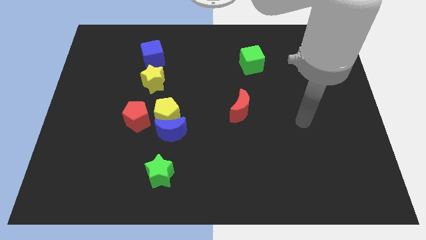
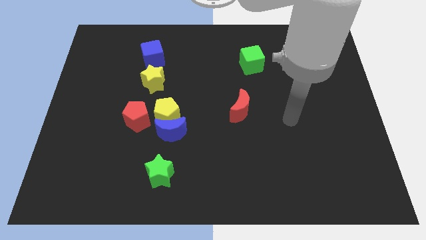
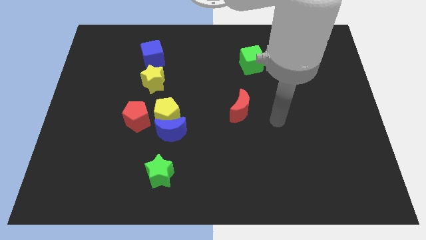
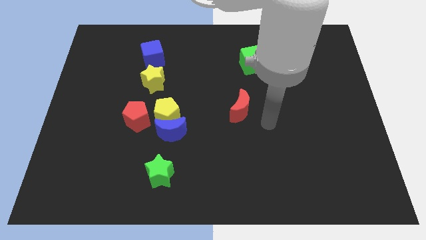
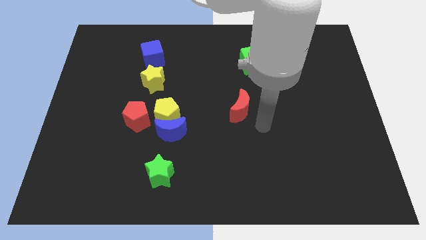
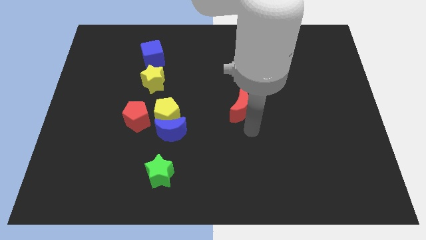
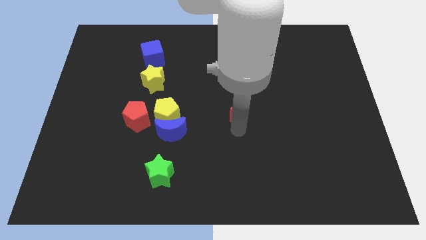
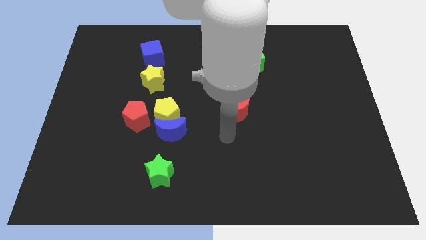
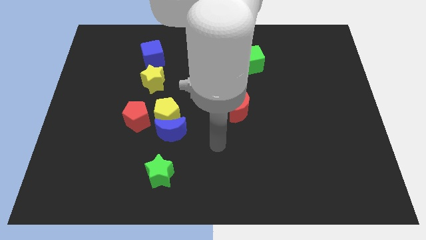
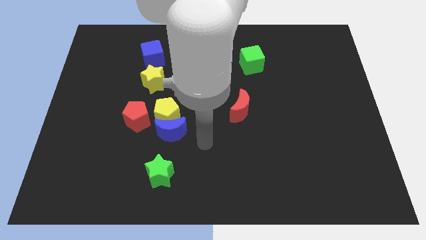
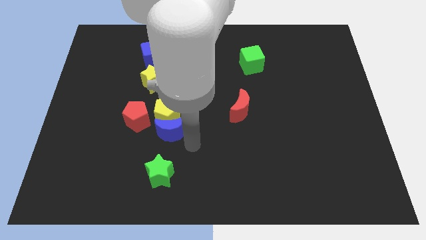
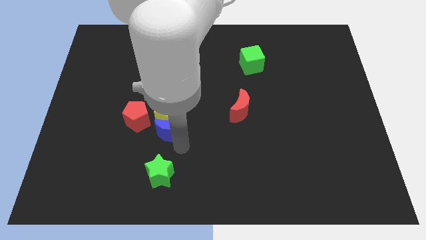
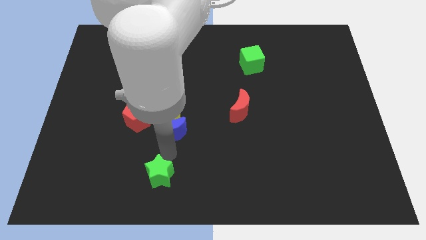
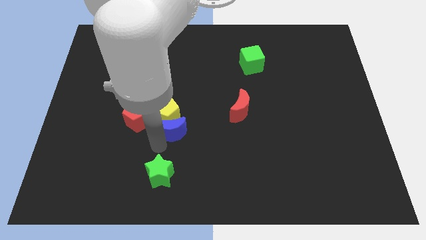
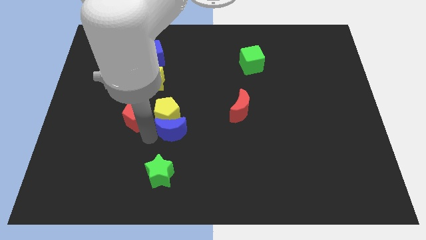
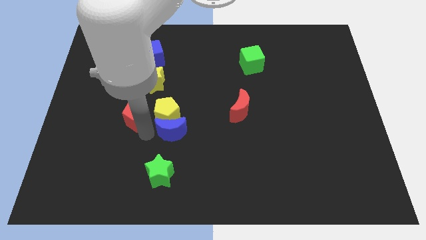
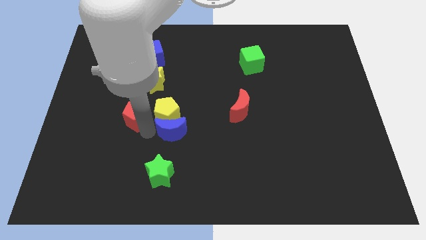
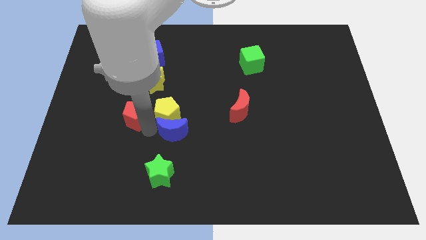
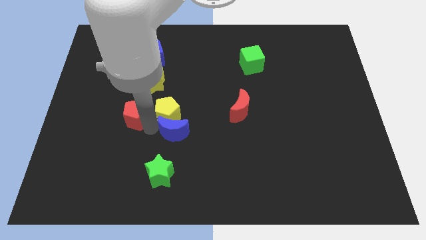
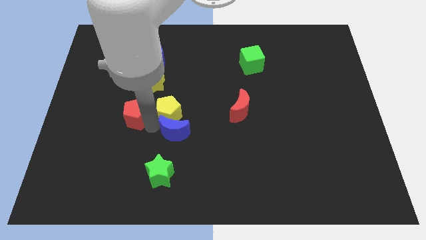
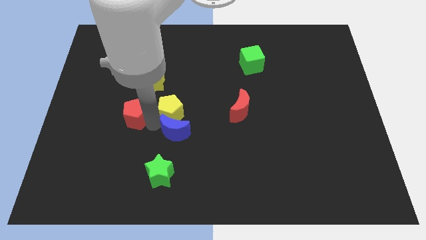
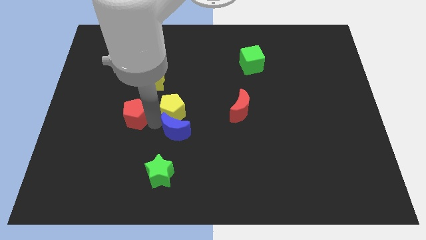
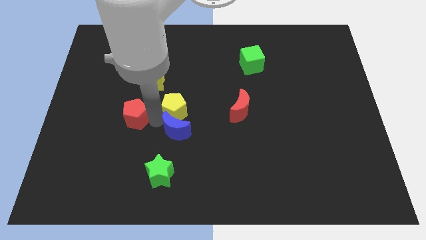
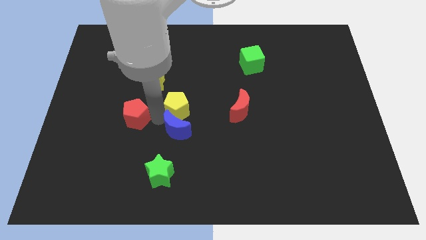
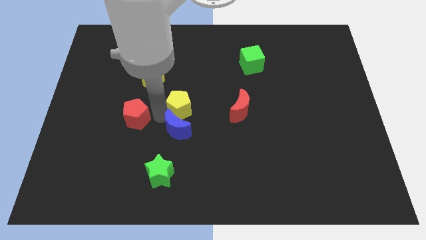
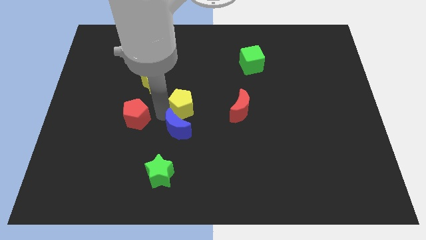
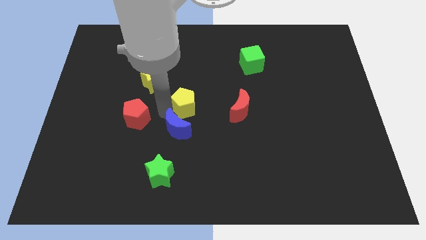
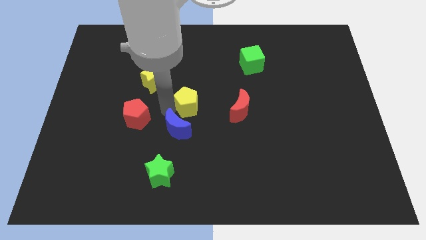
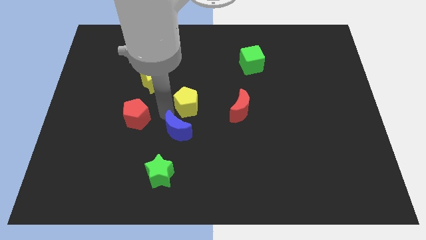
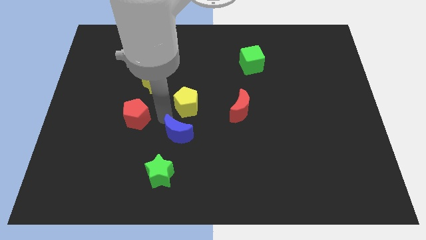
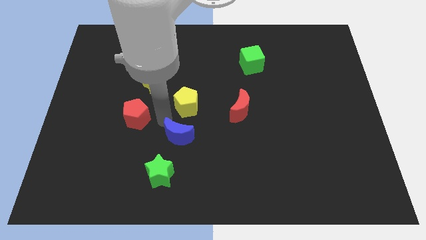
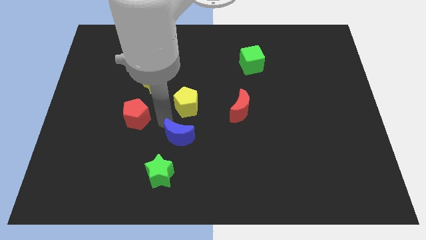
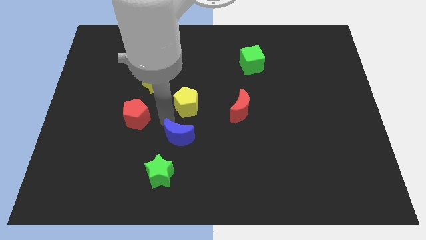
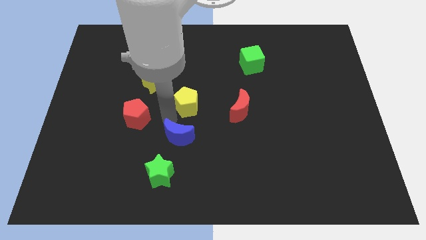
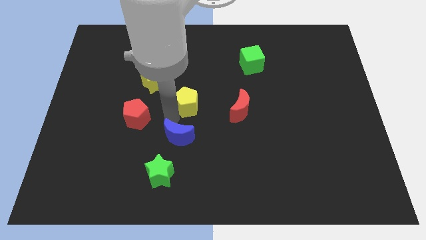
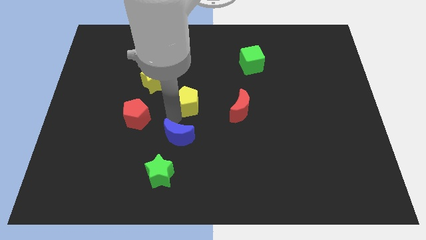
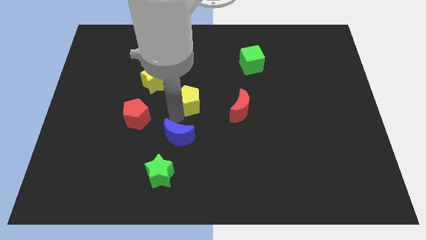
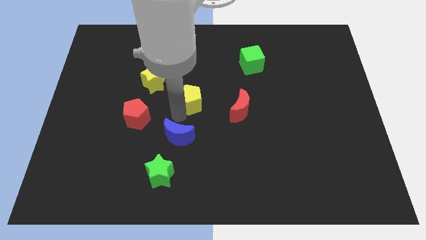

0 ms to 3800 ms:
separate the yellow pentagon from the blue moon and red pentagon

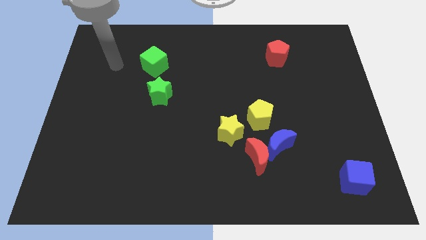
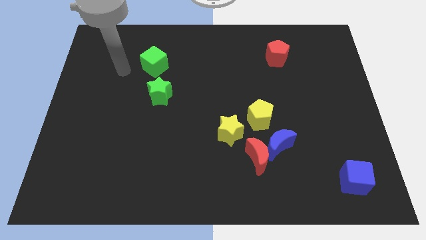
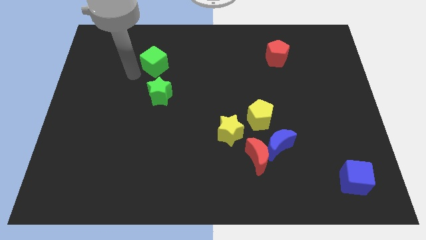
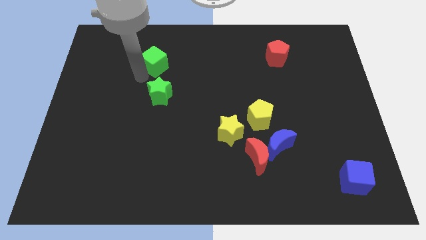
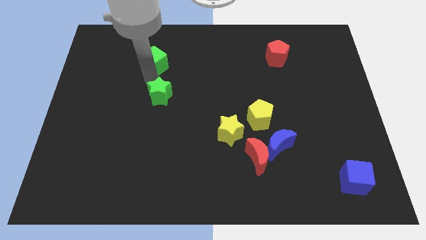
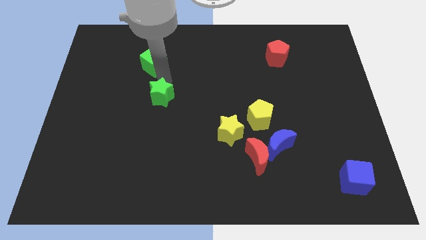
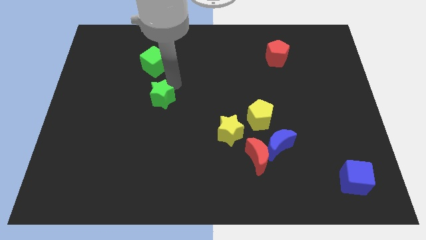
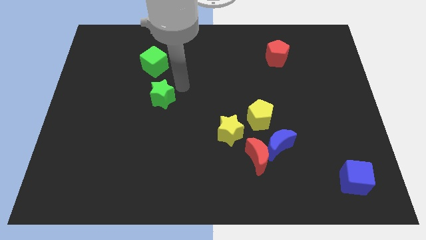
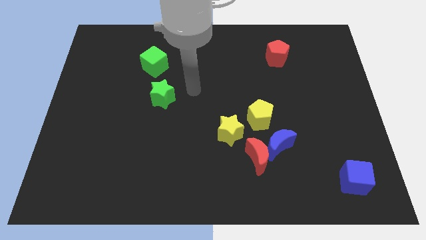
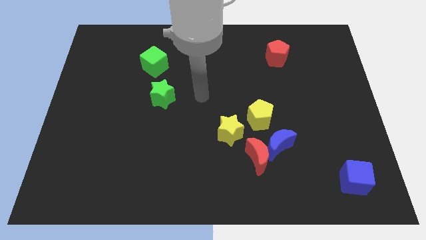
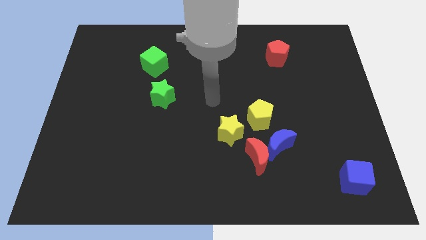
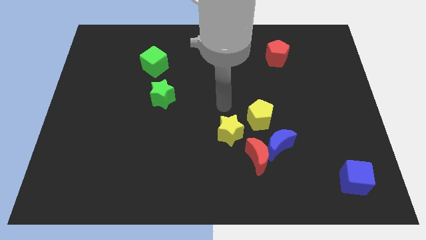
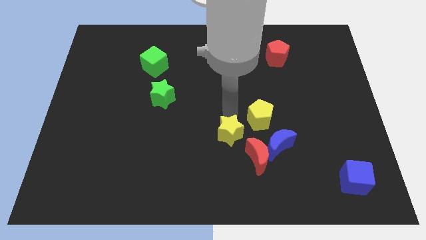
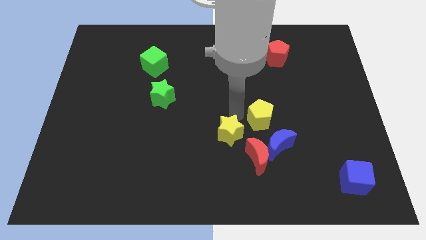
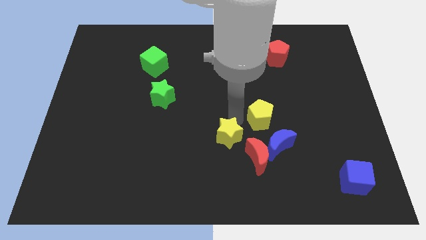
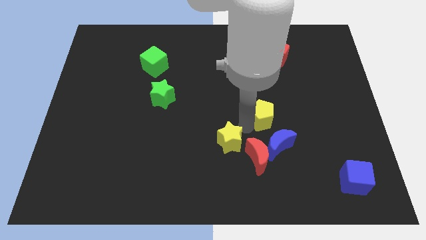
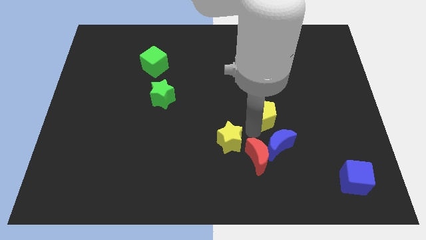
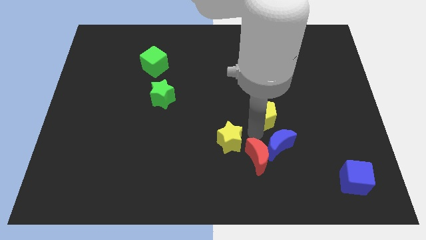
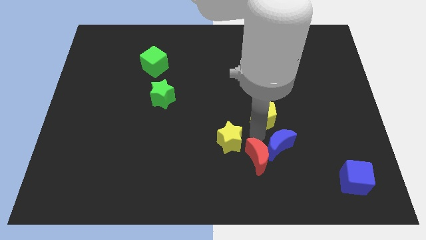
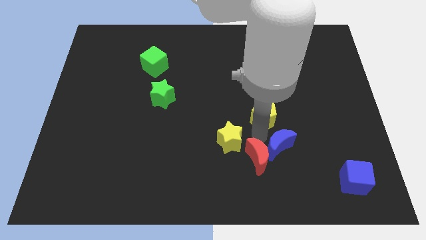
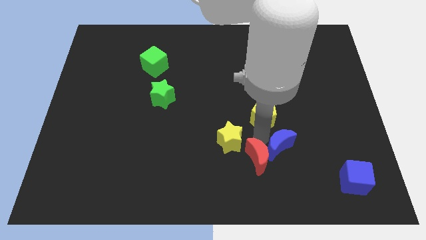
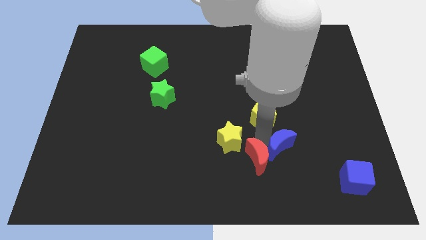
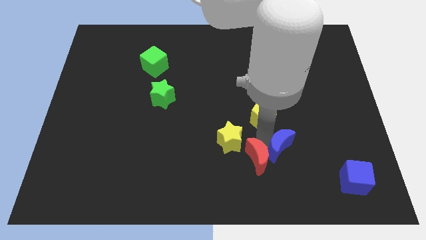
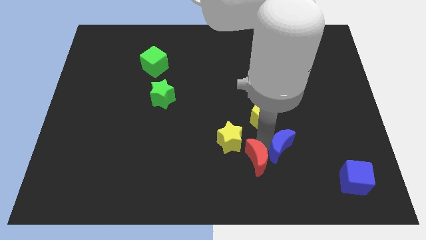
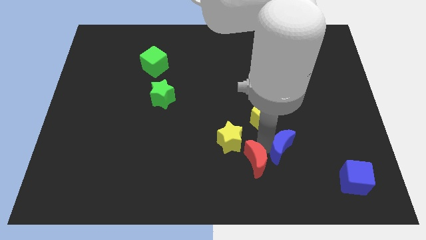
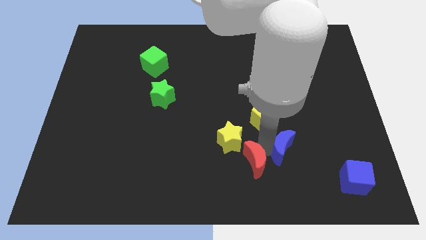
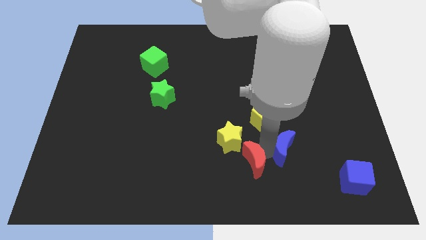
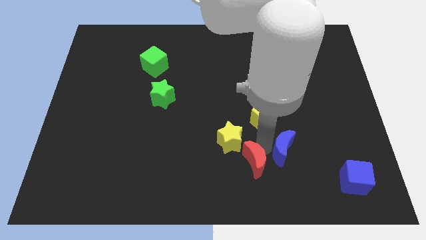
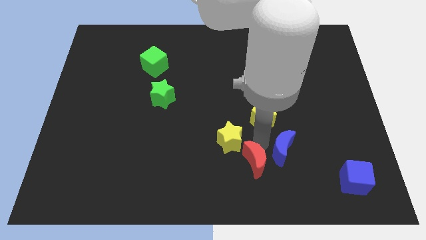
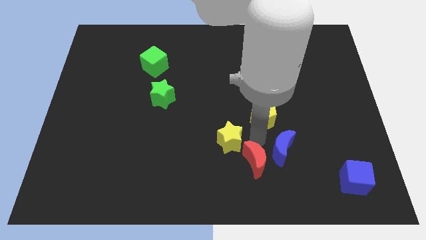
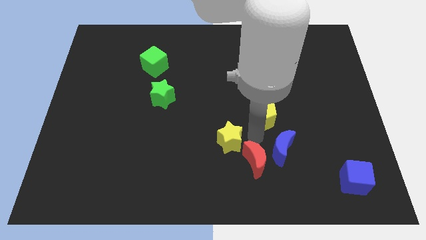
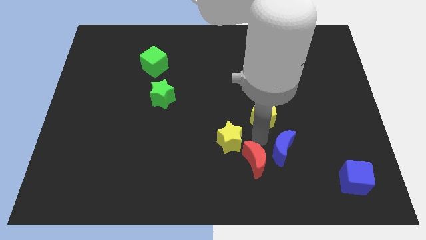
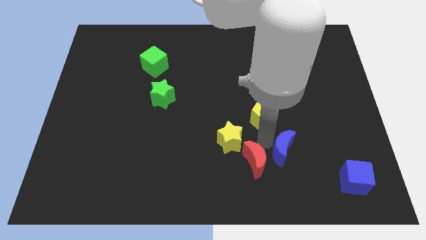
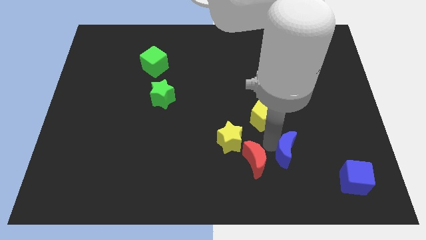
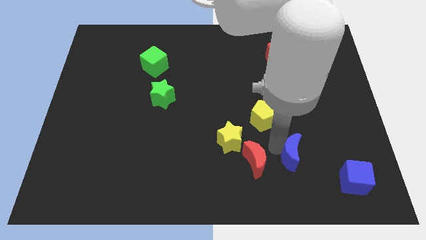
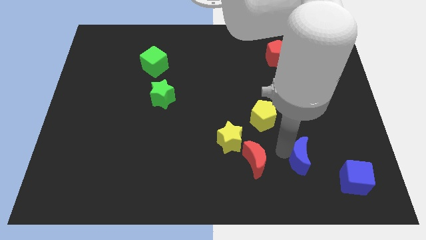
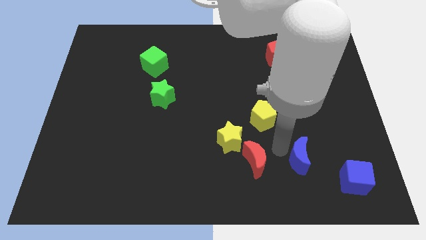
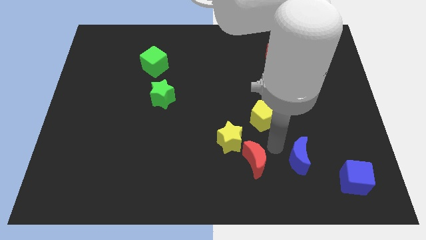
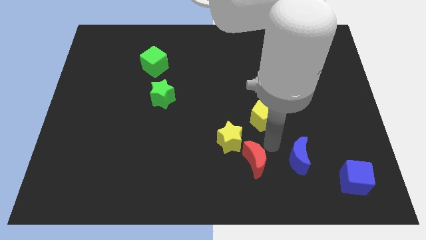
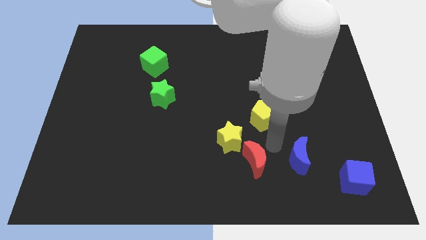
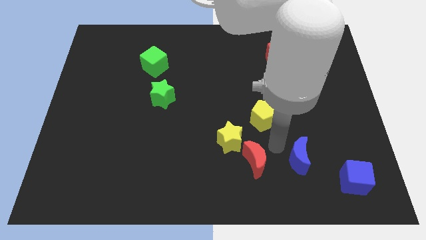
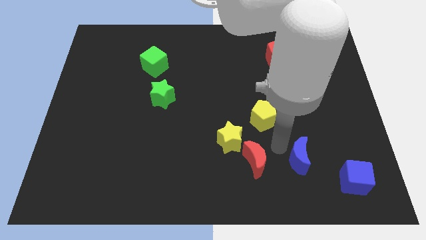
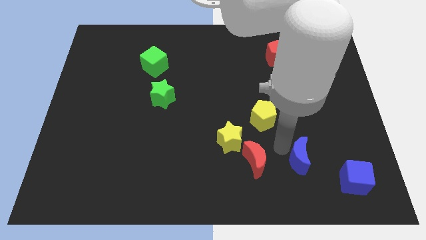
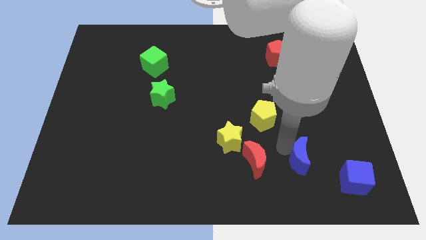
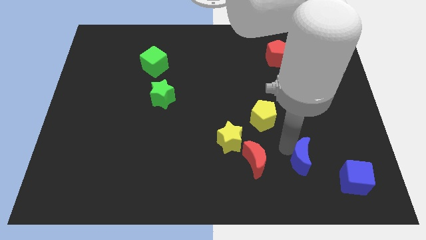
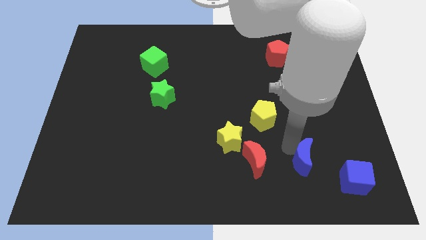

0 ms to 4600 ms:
move the blue moon away from the red moon and yellow pentagon

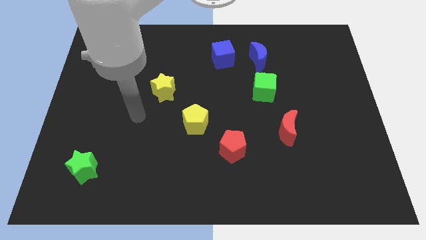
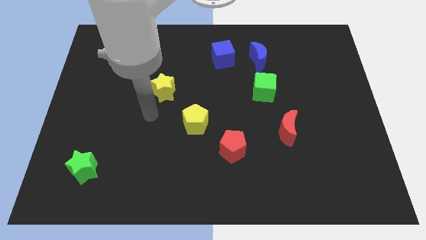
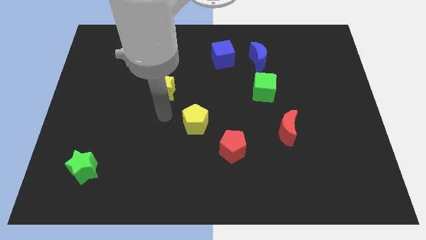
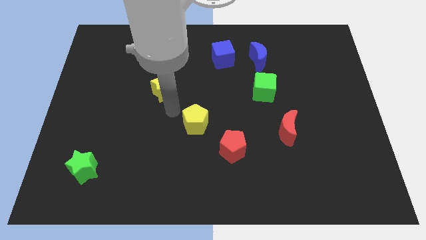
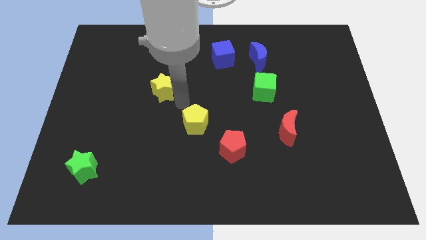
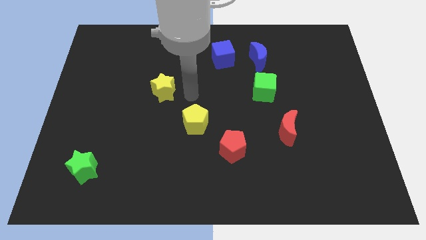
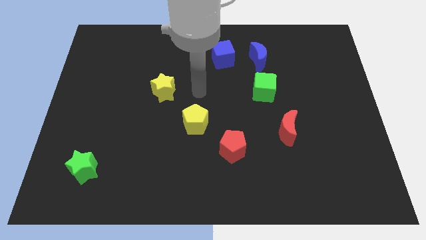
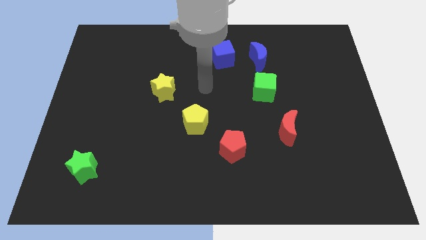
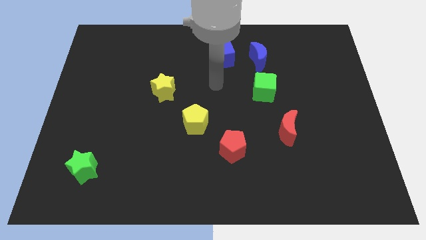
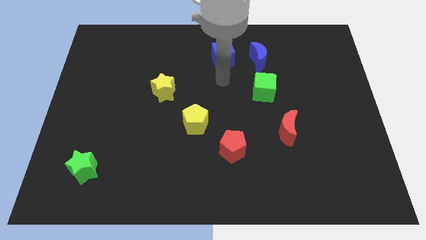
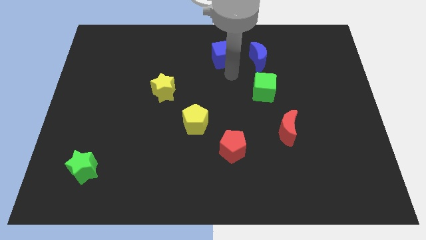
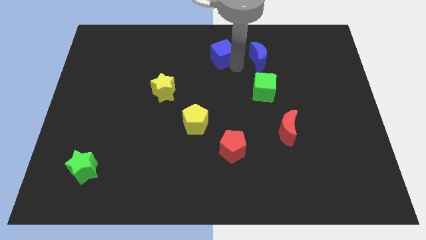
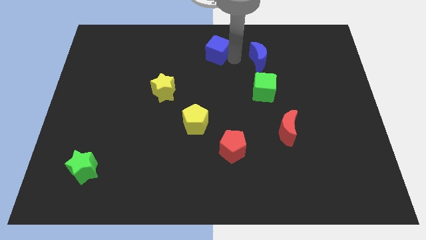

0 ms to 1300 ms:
separate the blue moon from the blue cube
